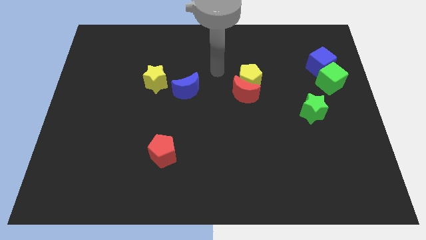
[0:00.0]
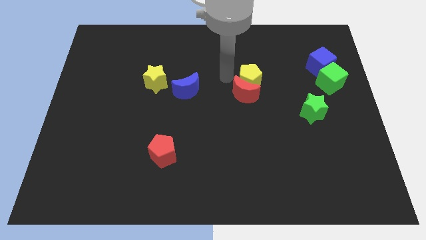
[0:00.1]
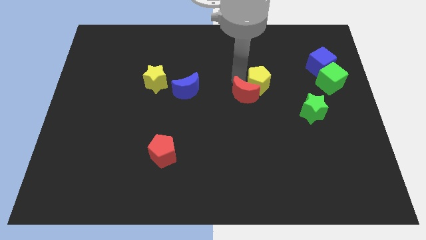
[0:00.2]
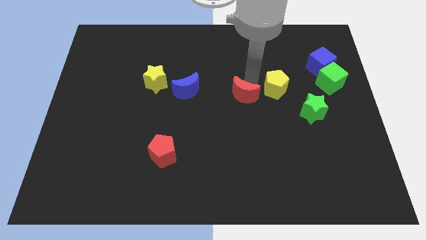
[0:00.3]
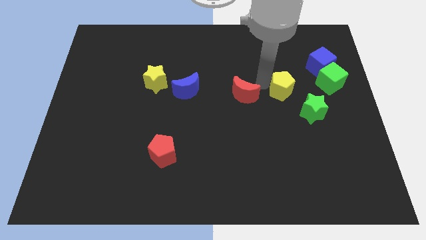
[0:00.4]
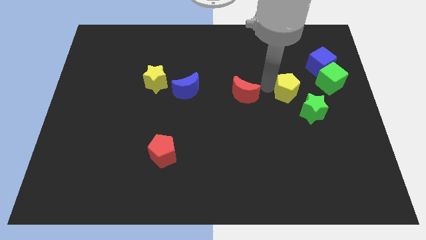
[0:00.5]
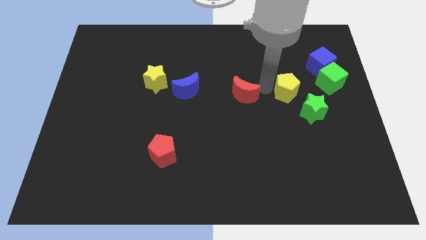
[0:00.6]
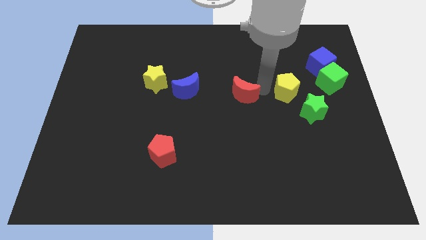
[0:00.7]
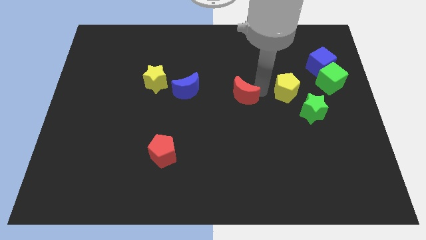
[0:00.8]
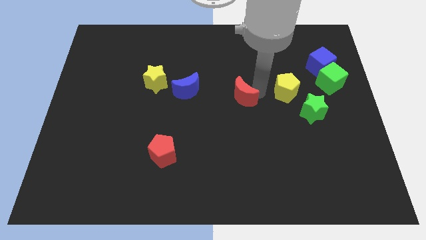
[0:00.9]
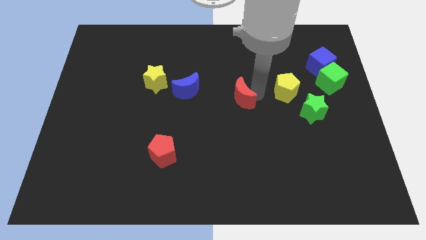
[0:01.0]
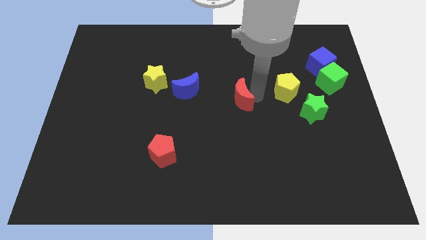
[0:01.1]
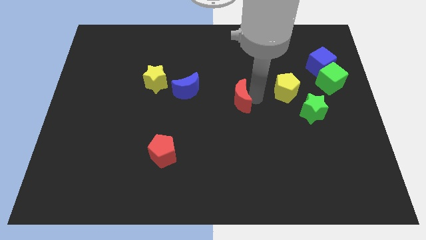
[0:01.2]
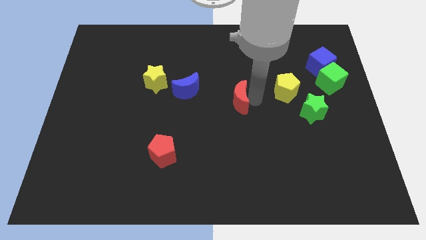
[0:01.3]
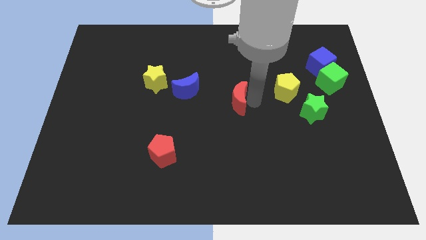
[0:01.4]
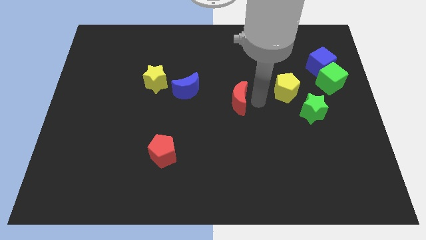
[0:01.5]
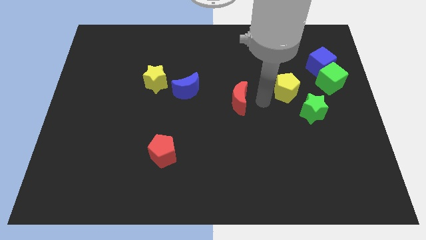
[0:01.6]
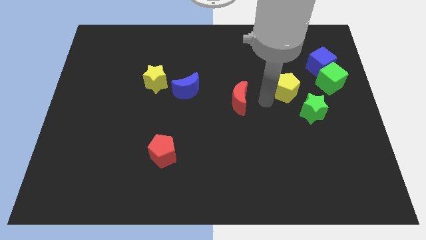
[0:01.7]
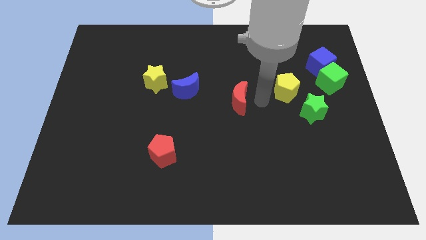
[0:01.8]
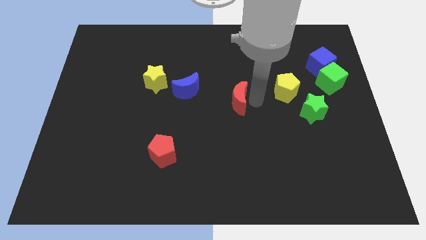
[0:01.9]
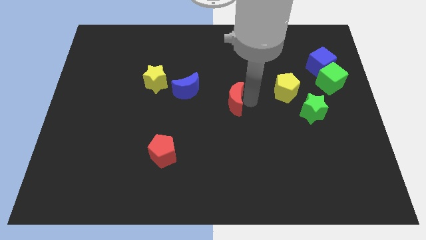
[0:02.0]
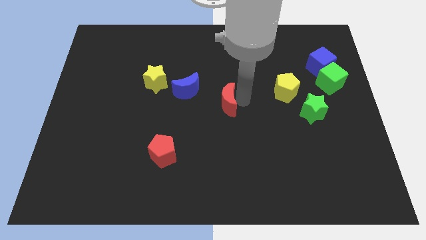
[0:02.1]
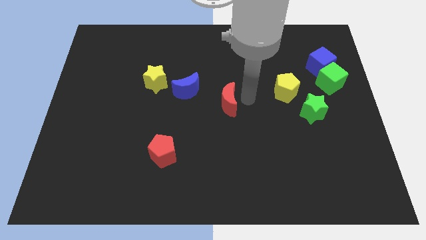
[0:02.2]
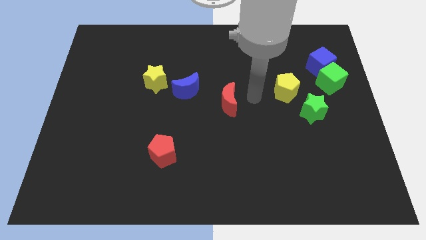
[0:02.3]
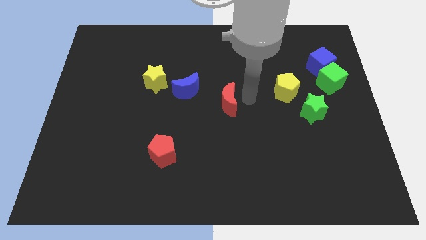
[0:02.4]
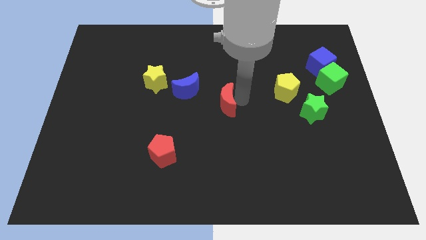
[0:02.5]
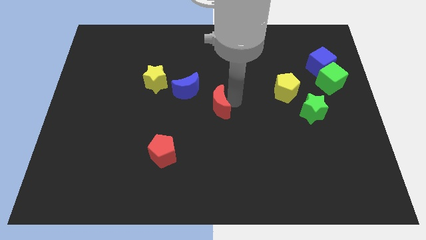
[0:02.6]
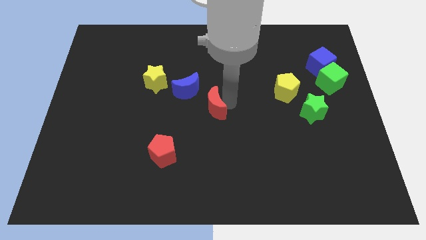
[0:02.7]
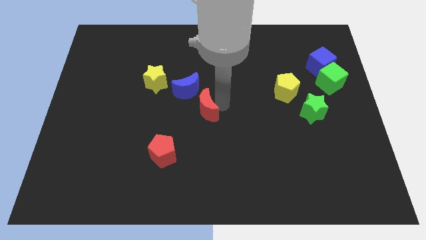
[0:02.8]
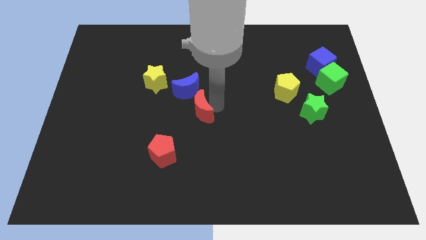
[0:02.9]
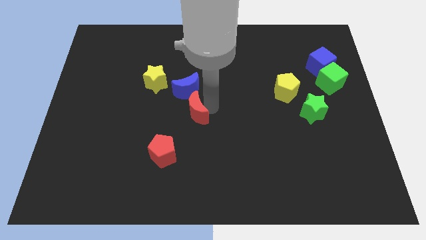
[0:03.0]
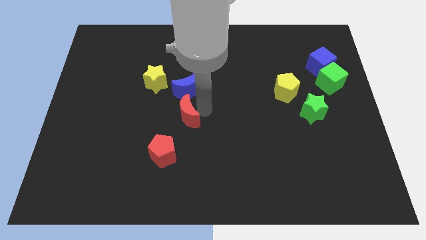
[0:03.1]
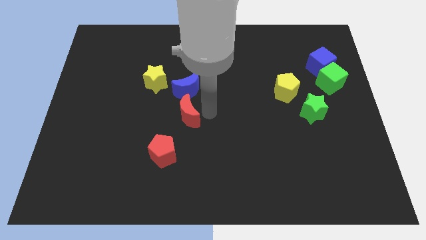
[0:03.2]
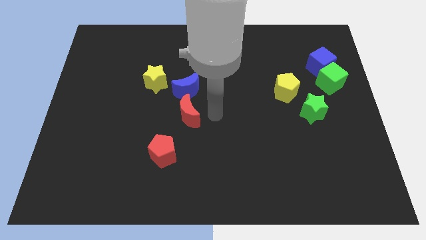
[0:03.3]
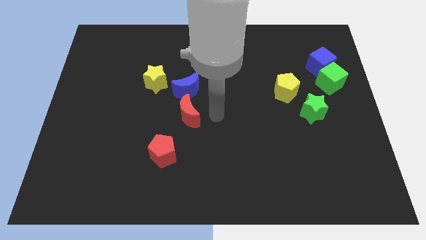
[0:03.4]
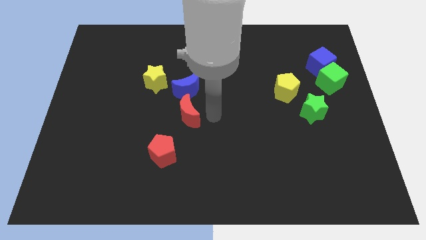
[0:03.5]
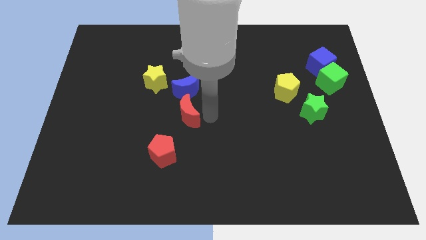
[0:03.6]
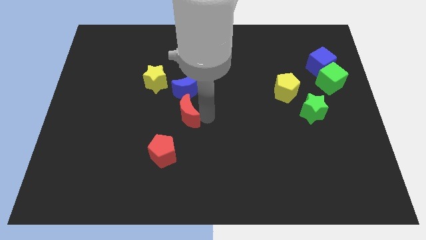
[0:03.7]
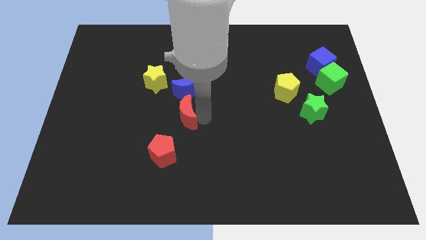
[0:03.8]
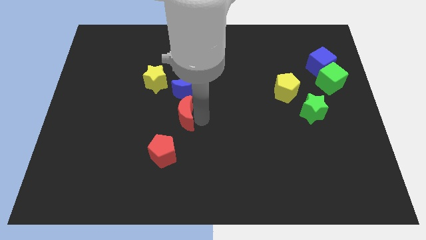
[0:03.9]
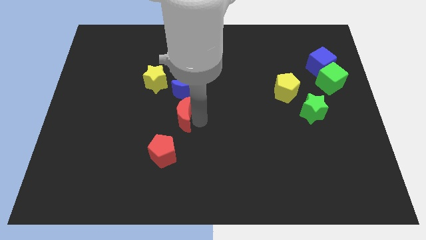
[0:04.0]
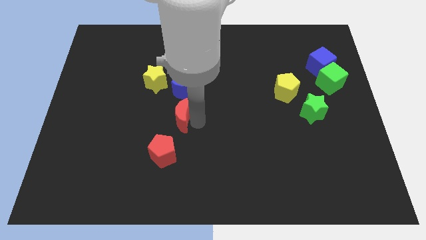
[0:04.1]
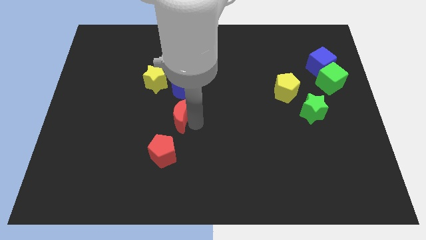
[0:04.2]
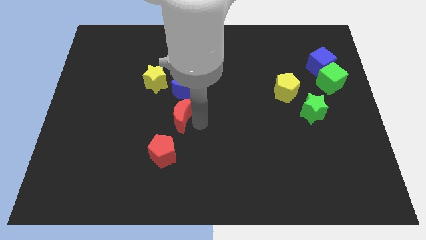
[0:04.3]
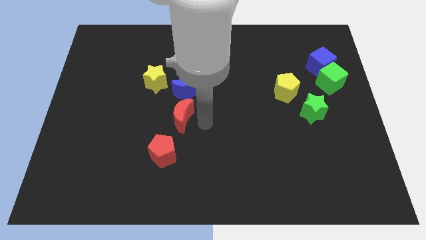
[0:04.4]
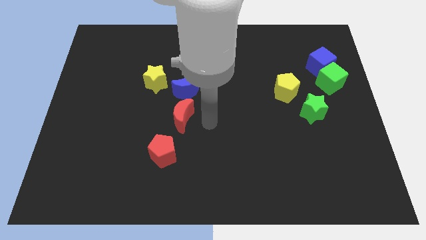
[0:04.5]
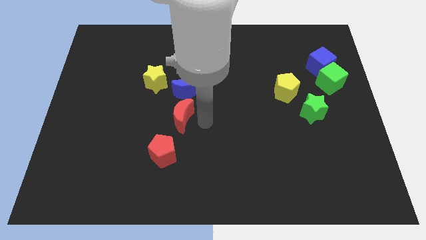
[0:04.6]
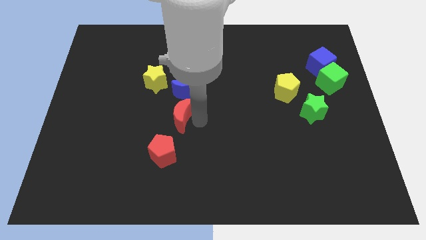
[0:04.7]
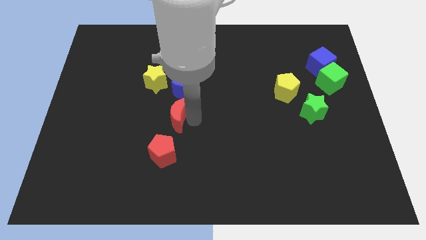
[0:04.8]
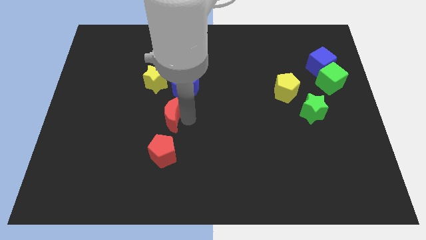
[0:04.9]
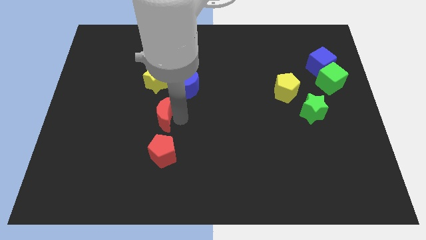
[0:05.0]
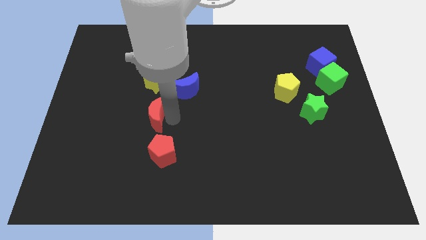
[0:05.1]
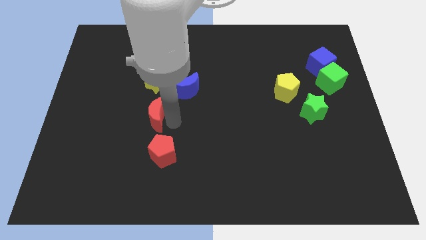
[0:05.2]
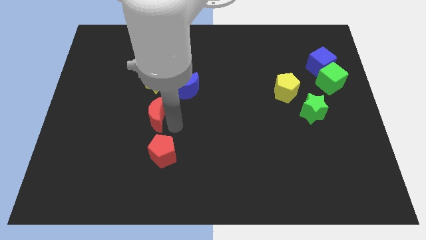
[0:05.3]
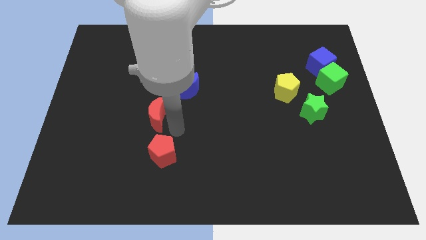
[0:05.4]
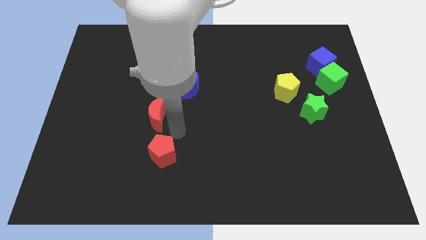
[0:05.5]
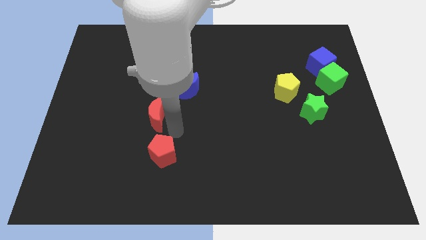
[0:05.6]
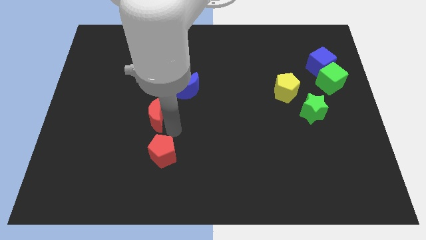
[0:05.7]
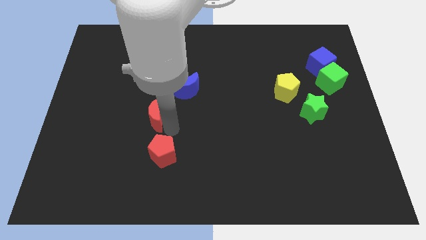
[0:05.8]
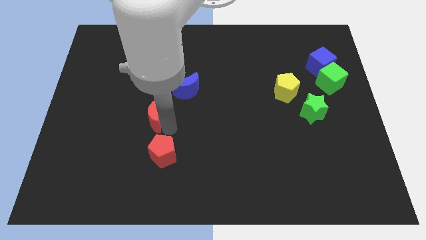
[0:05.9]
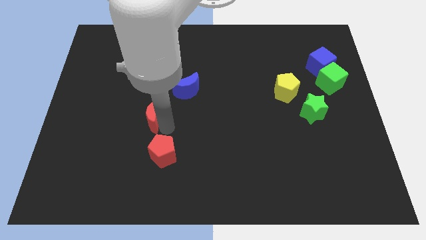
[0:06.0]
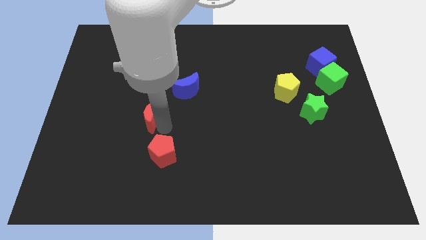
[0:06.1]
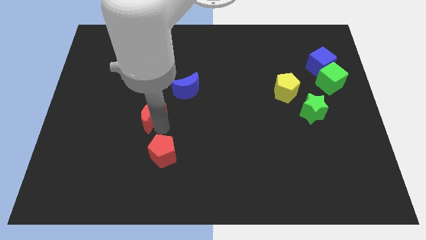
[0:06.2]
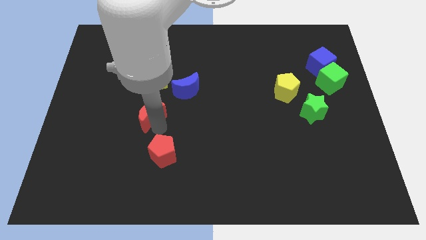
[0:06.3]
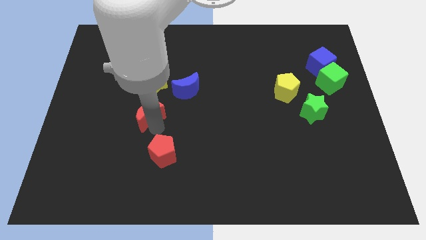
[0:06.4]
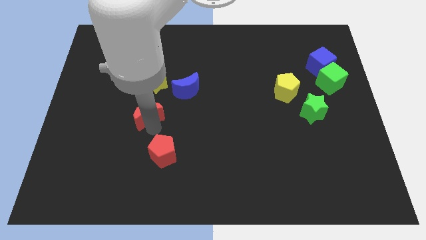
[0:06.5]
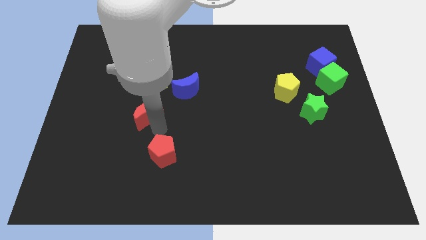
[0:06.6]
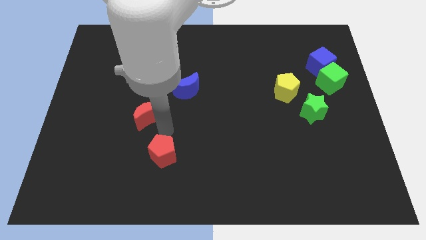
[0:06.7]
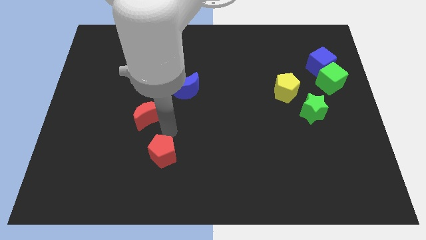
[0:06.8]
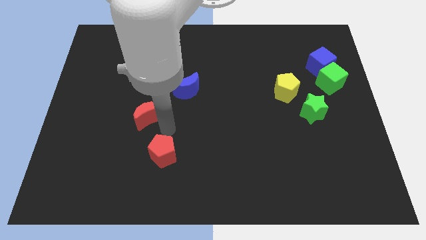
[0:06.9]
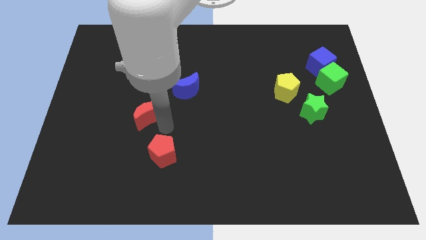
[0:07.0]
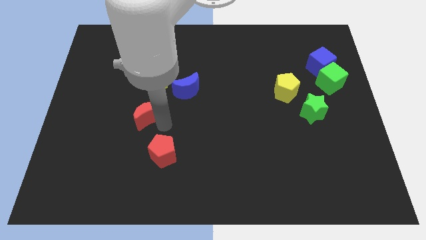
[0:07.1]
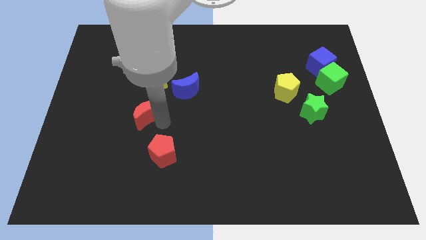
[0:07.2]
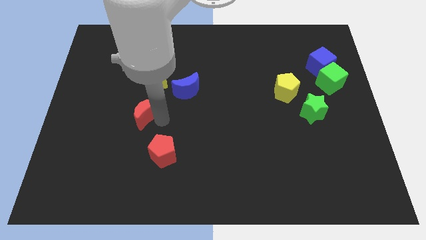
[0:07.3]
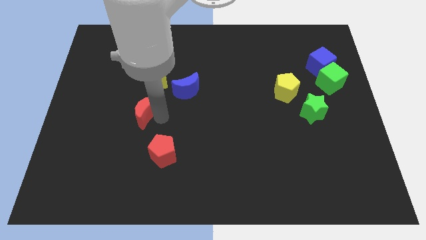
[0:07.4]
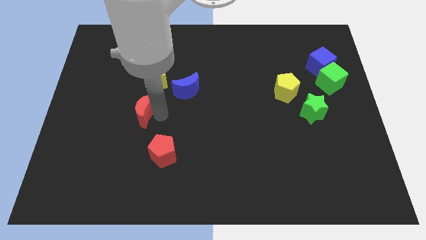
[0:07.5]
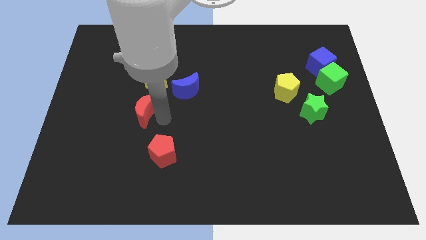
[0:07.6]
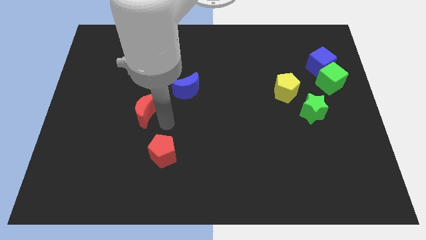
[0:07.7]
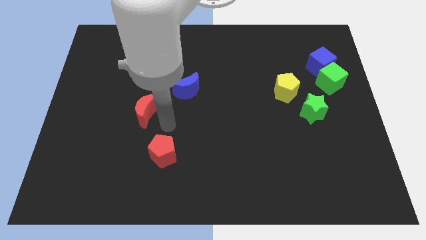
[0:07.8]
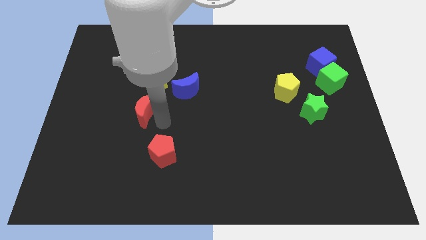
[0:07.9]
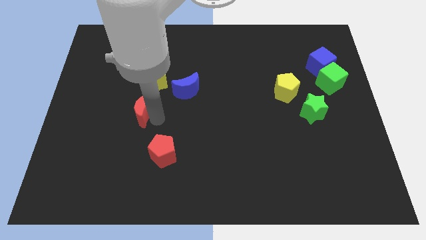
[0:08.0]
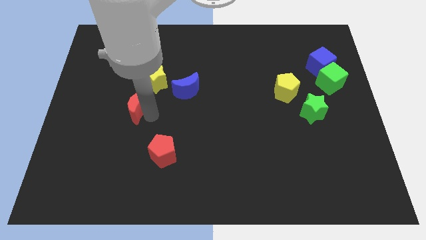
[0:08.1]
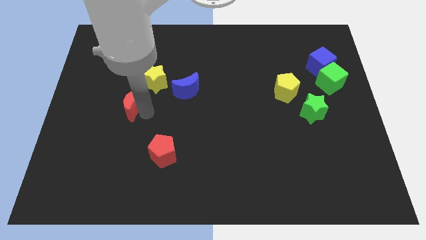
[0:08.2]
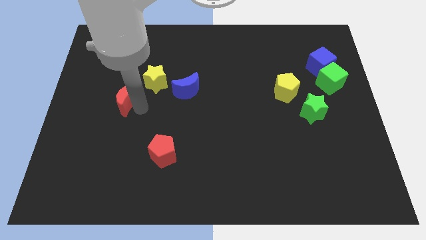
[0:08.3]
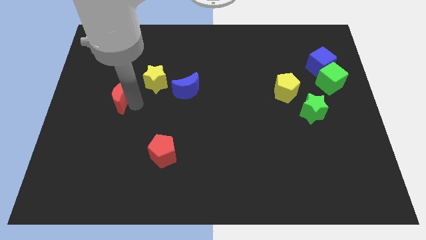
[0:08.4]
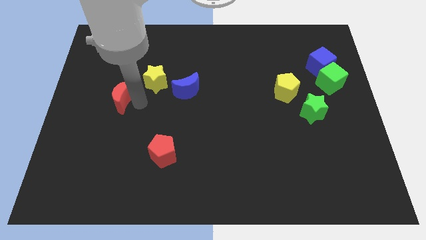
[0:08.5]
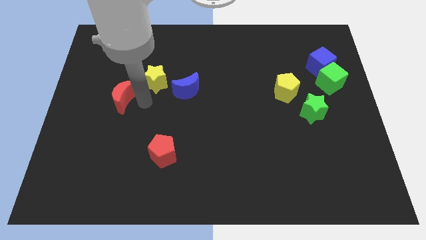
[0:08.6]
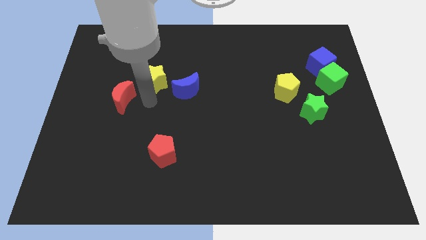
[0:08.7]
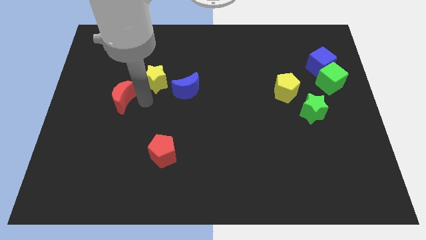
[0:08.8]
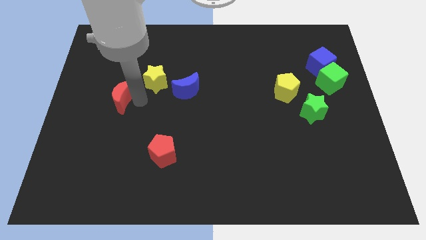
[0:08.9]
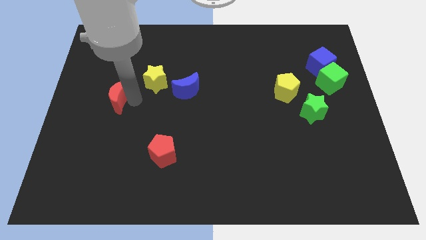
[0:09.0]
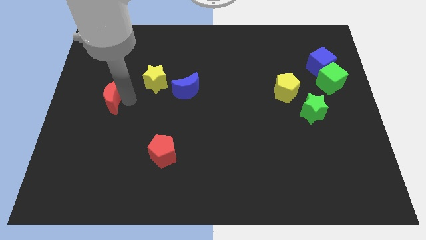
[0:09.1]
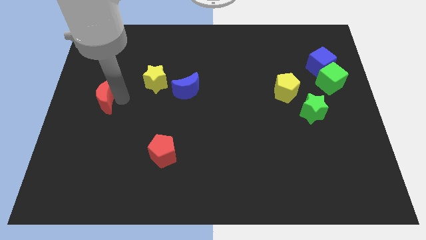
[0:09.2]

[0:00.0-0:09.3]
push the red moon to the center left
